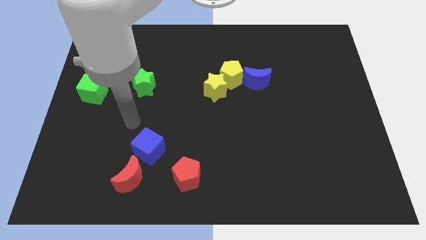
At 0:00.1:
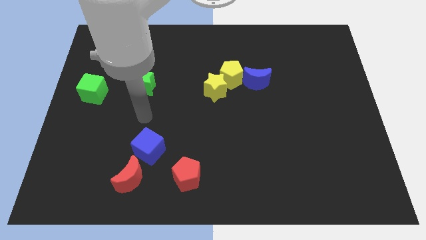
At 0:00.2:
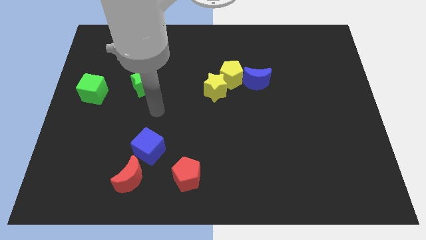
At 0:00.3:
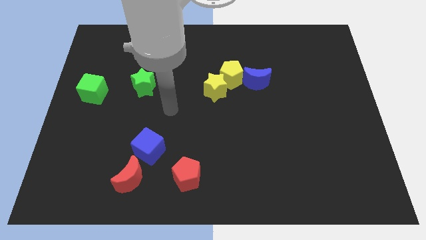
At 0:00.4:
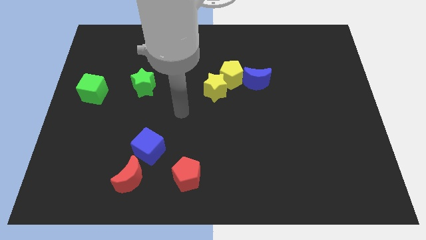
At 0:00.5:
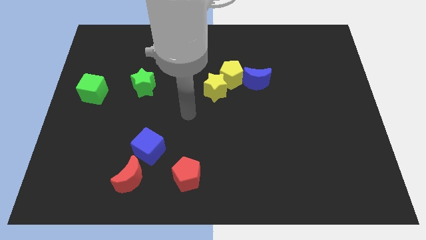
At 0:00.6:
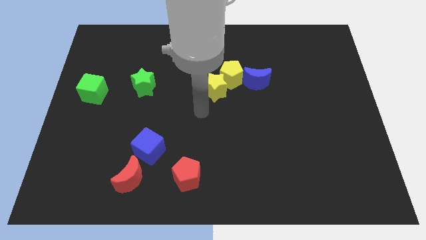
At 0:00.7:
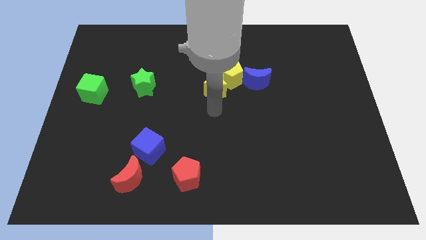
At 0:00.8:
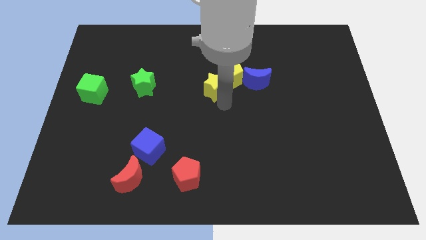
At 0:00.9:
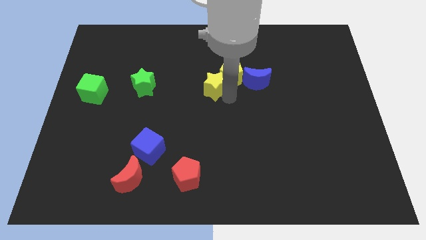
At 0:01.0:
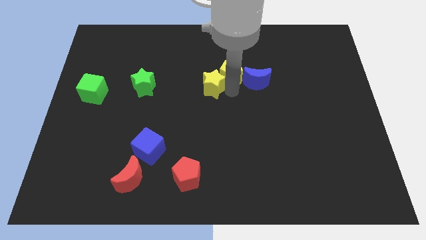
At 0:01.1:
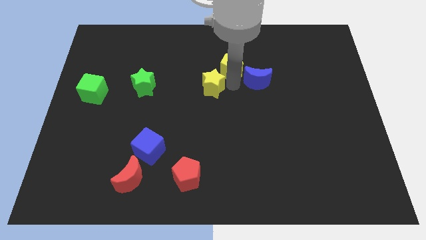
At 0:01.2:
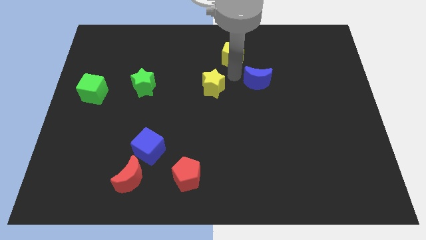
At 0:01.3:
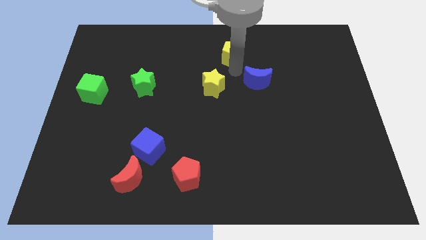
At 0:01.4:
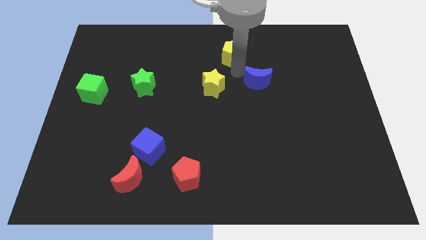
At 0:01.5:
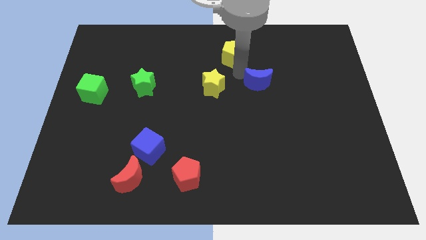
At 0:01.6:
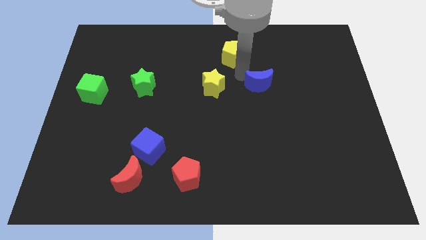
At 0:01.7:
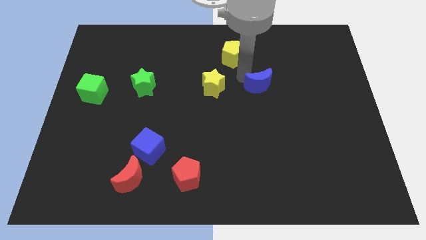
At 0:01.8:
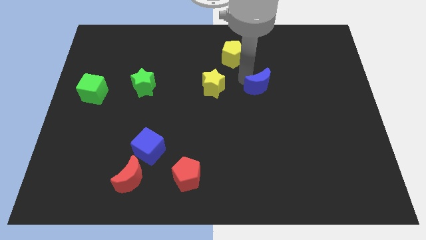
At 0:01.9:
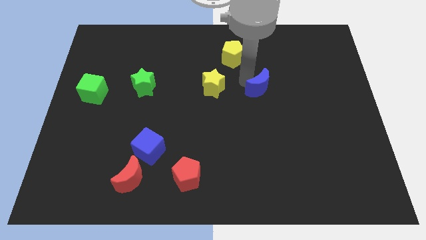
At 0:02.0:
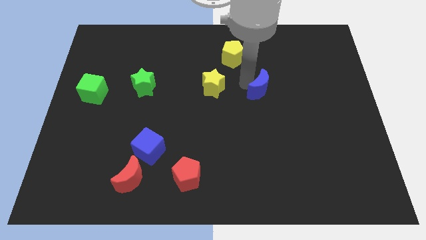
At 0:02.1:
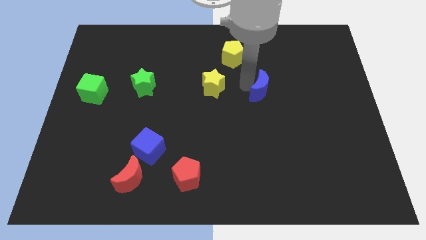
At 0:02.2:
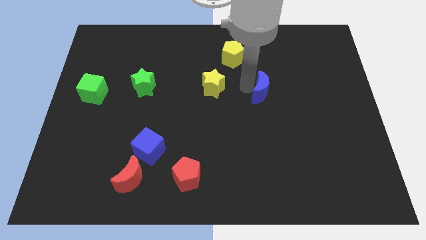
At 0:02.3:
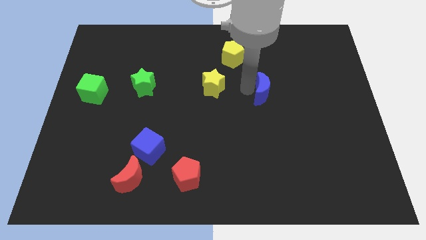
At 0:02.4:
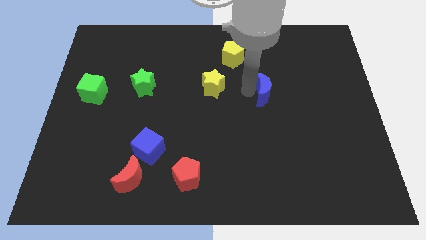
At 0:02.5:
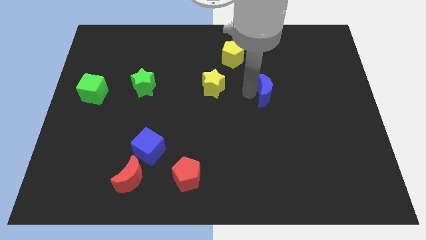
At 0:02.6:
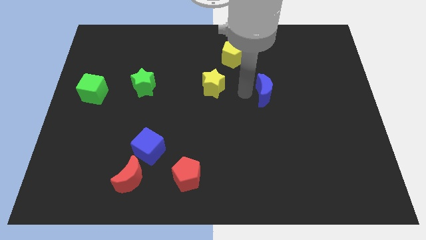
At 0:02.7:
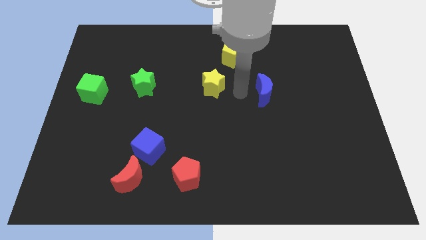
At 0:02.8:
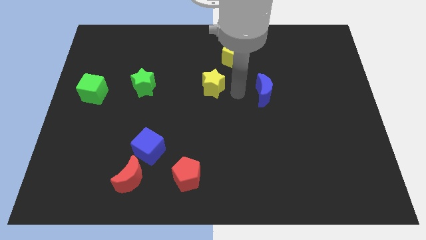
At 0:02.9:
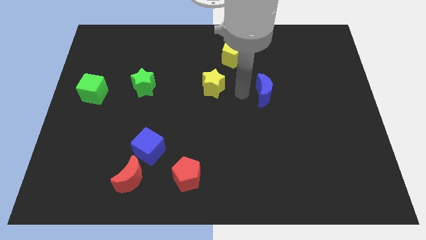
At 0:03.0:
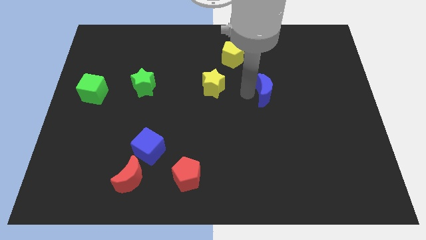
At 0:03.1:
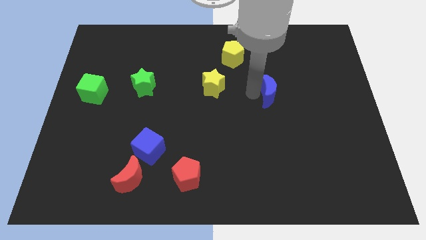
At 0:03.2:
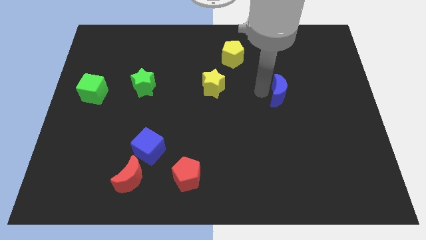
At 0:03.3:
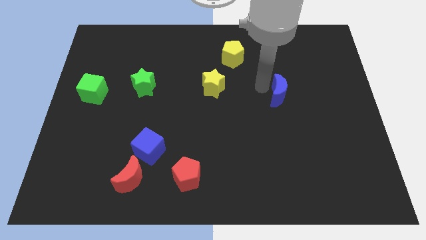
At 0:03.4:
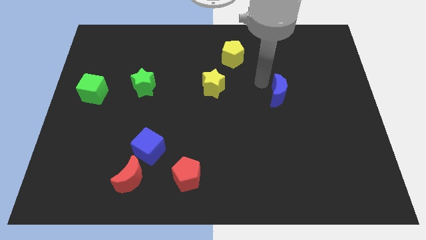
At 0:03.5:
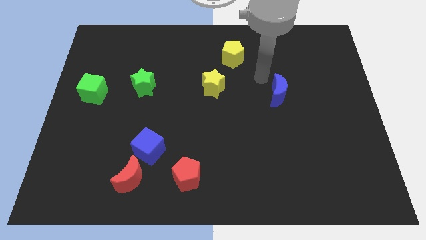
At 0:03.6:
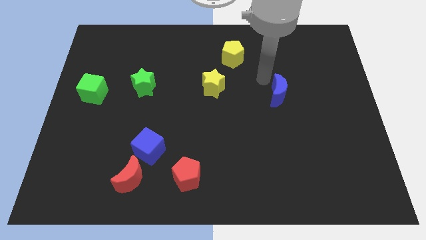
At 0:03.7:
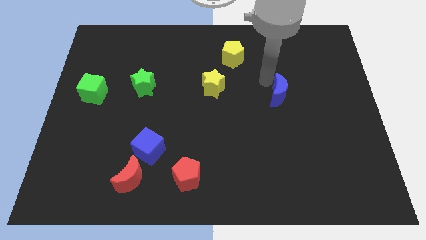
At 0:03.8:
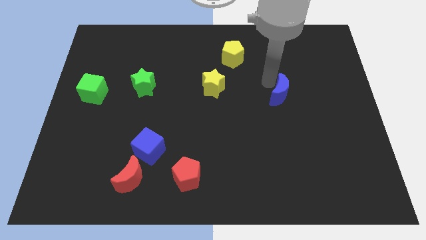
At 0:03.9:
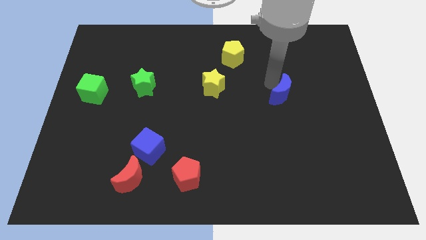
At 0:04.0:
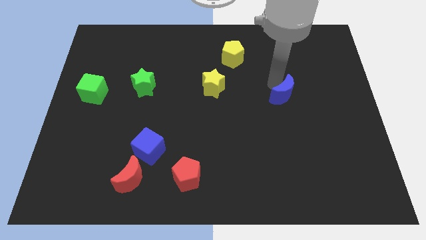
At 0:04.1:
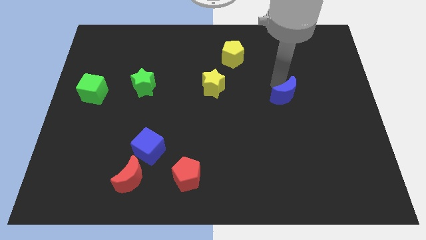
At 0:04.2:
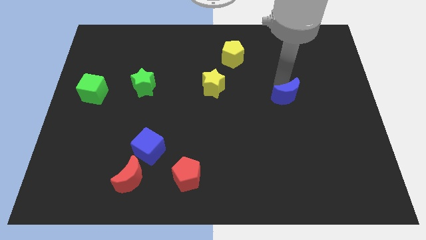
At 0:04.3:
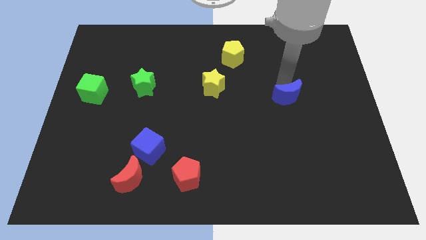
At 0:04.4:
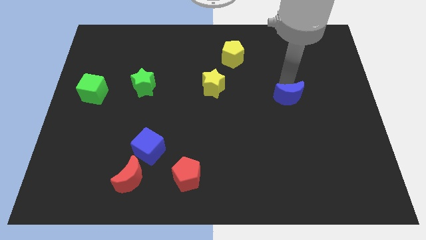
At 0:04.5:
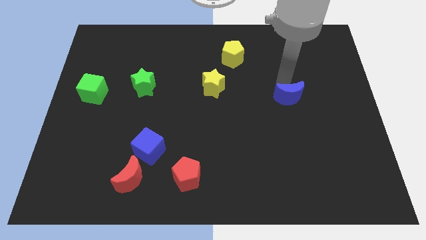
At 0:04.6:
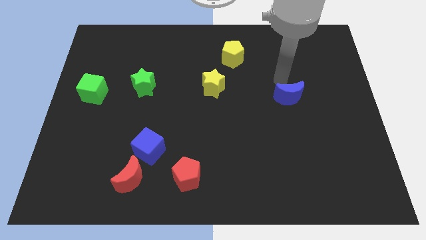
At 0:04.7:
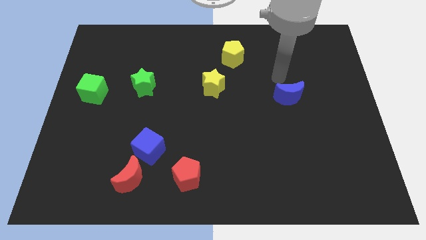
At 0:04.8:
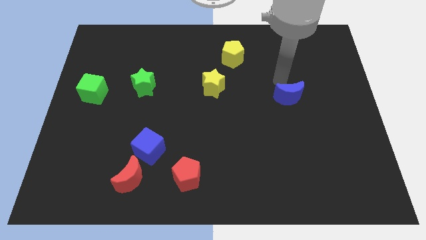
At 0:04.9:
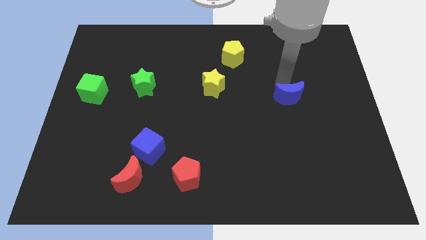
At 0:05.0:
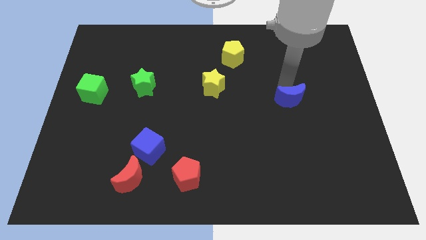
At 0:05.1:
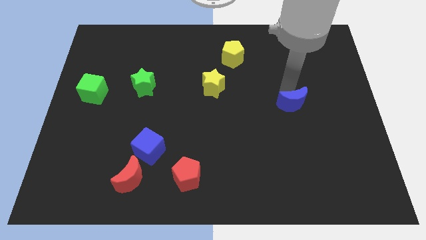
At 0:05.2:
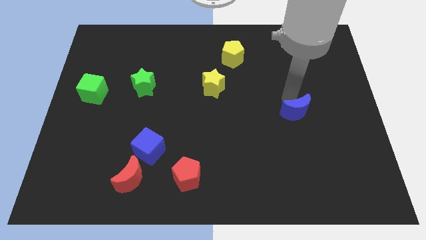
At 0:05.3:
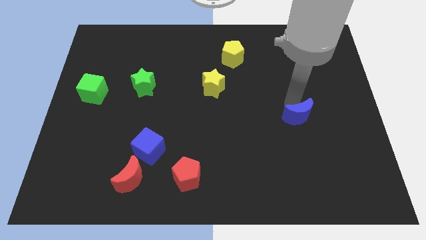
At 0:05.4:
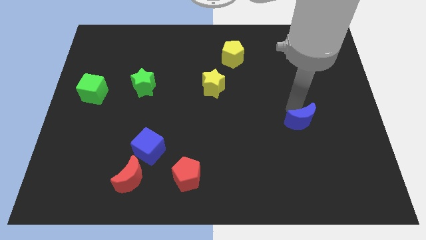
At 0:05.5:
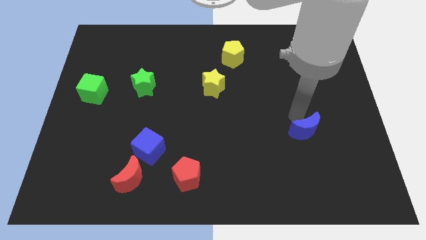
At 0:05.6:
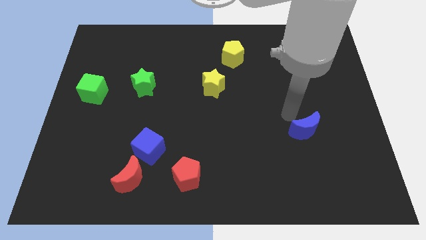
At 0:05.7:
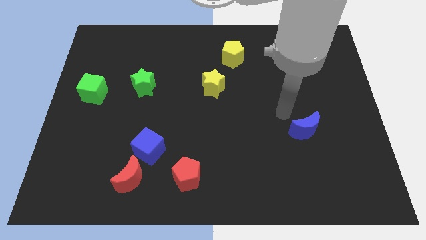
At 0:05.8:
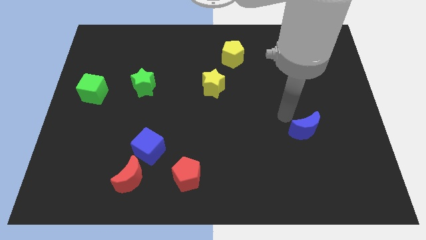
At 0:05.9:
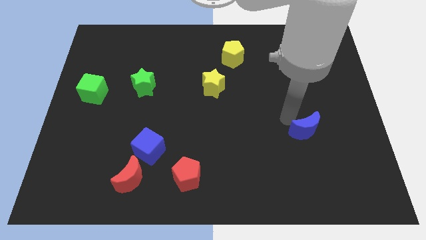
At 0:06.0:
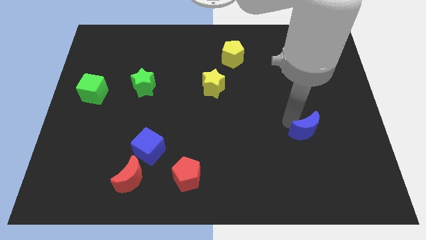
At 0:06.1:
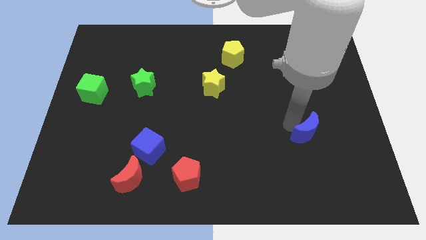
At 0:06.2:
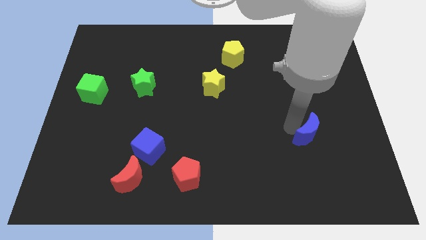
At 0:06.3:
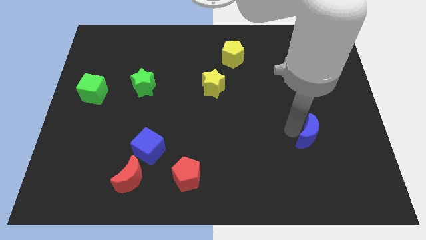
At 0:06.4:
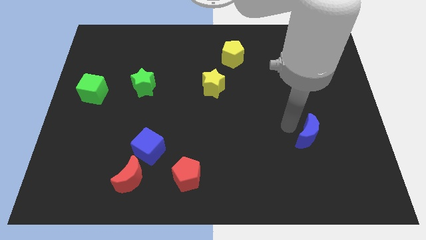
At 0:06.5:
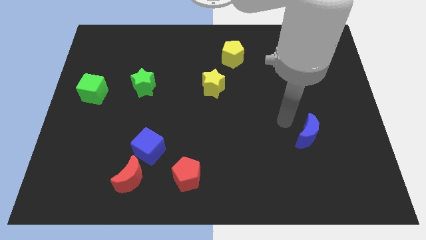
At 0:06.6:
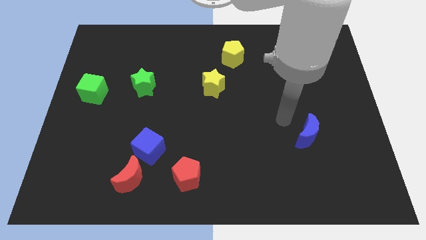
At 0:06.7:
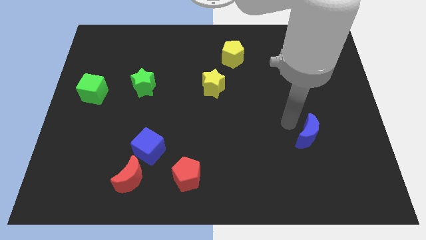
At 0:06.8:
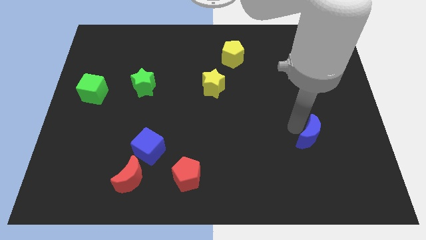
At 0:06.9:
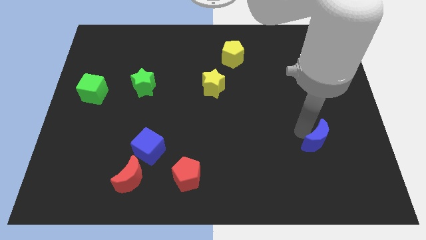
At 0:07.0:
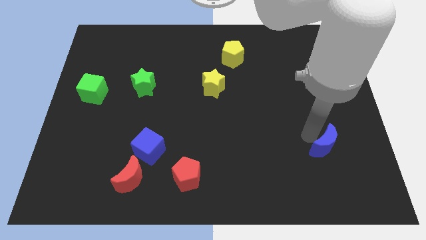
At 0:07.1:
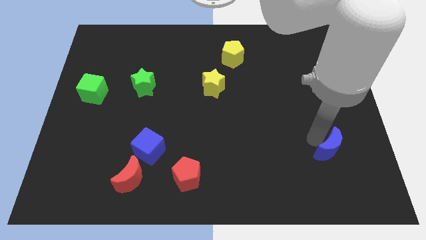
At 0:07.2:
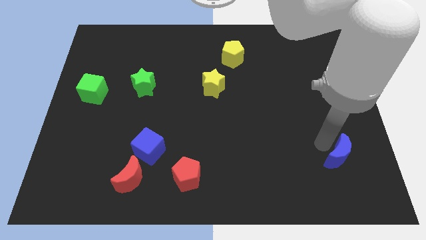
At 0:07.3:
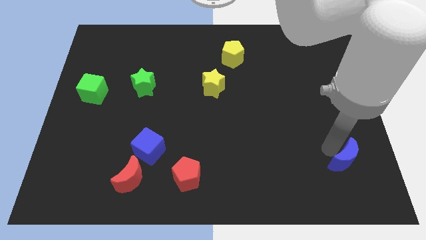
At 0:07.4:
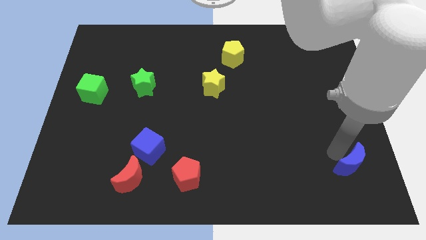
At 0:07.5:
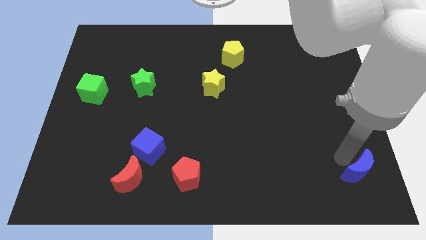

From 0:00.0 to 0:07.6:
move the blue moon to the bottom right of the board
